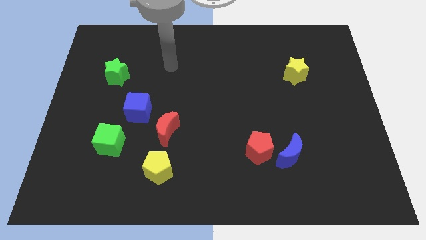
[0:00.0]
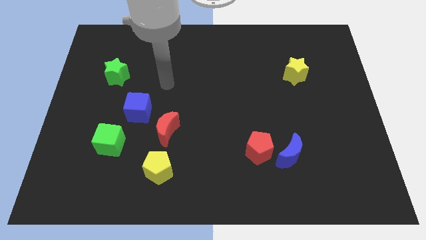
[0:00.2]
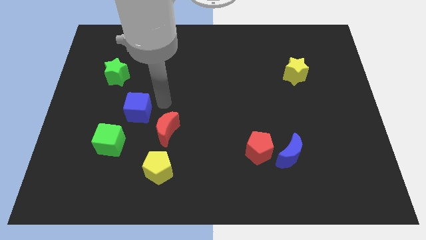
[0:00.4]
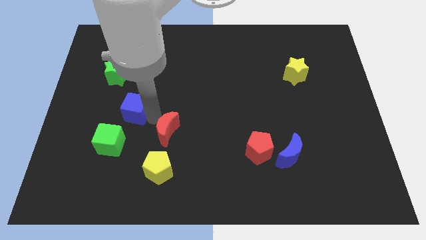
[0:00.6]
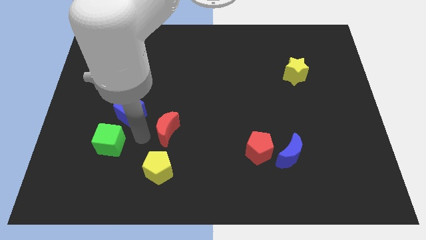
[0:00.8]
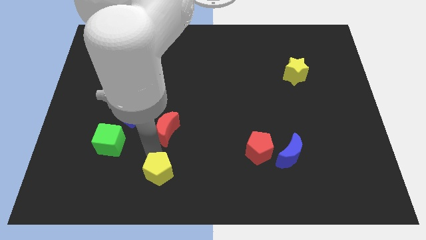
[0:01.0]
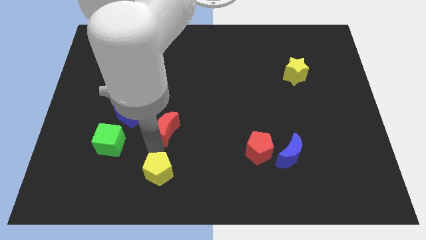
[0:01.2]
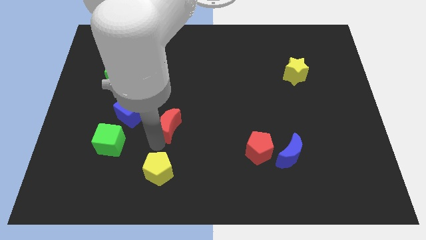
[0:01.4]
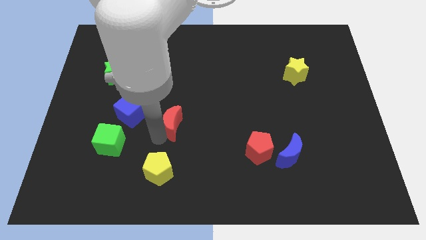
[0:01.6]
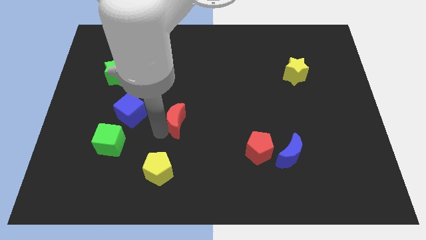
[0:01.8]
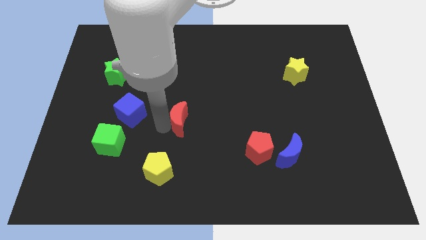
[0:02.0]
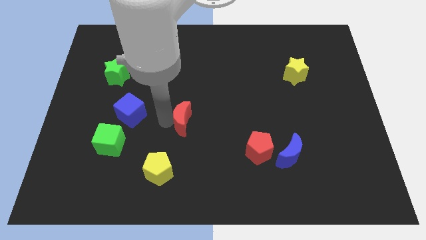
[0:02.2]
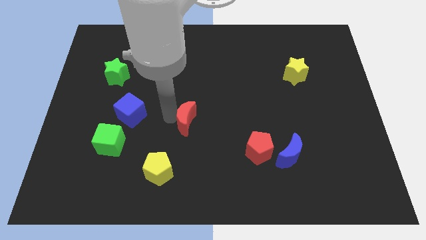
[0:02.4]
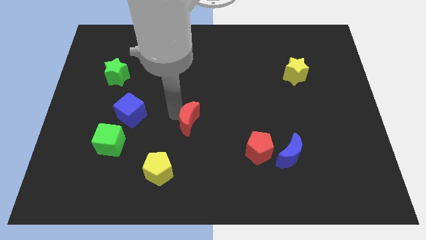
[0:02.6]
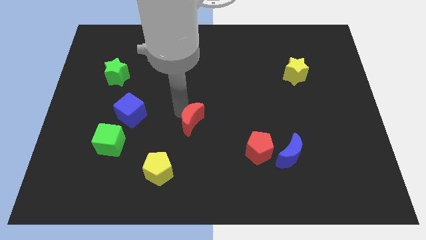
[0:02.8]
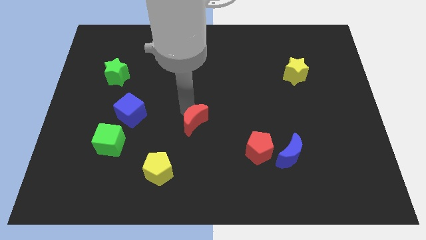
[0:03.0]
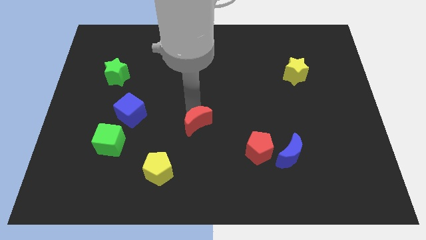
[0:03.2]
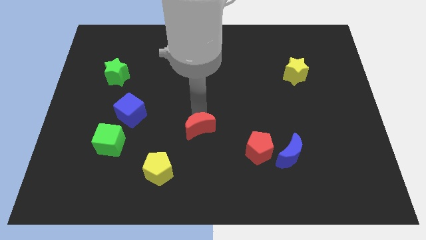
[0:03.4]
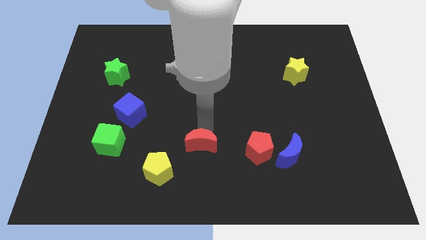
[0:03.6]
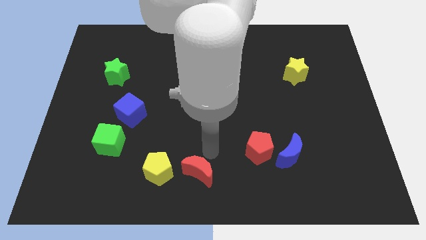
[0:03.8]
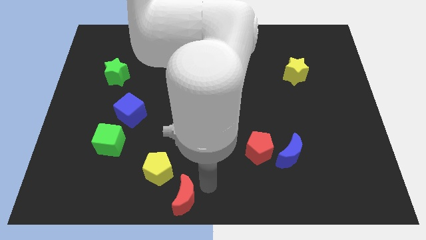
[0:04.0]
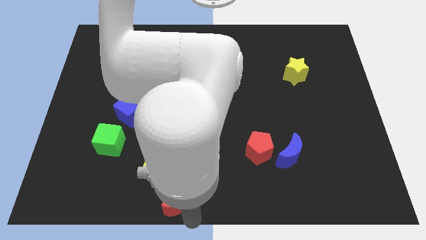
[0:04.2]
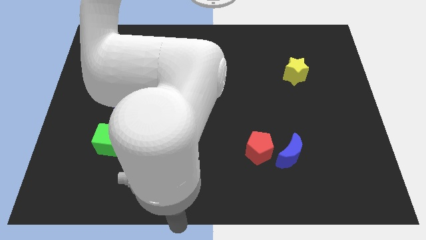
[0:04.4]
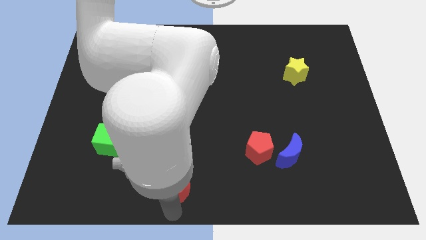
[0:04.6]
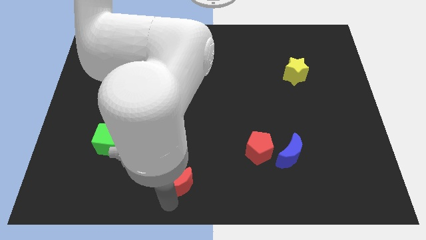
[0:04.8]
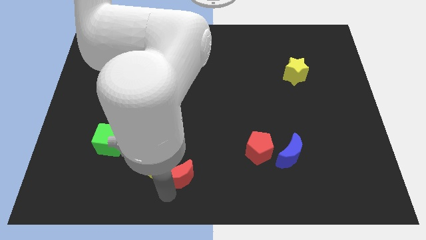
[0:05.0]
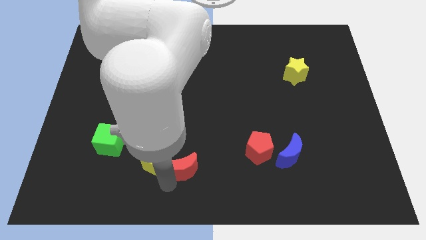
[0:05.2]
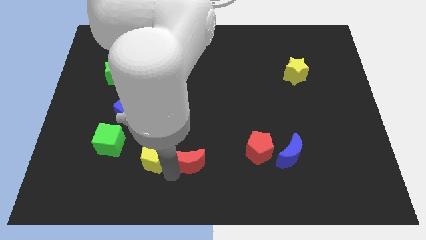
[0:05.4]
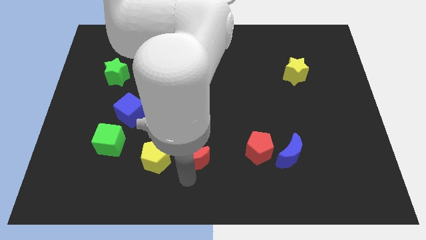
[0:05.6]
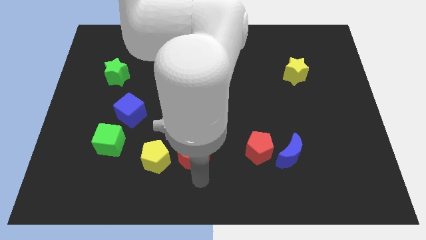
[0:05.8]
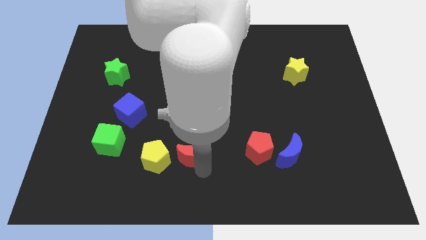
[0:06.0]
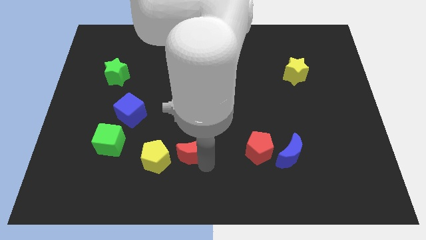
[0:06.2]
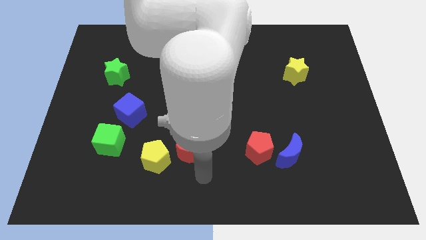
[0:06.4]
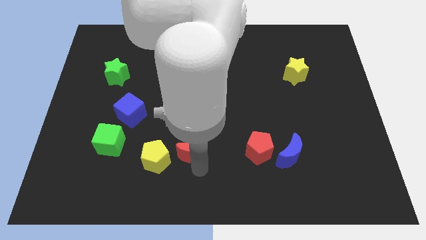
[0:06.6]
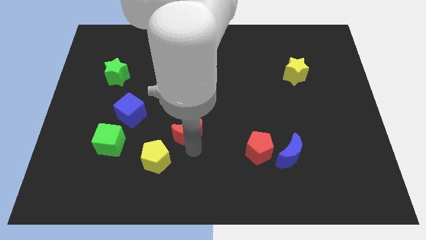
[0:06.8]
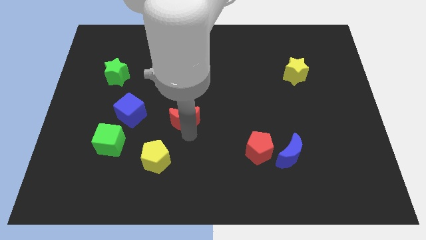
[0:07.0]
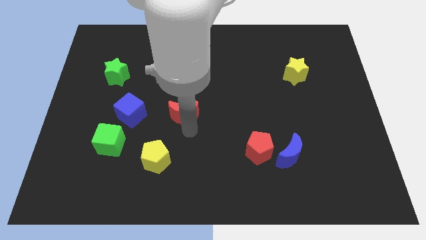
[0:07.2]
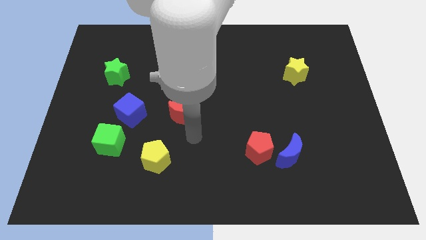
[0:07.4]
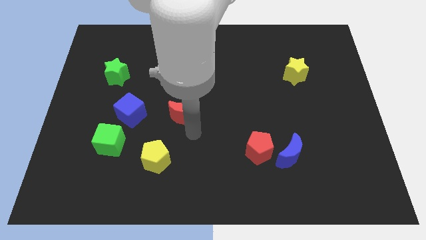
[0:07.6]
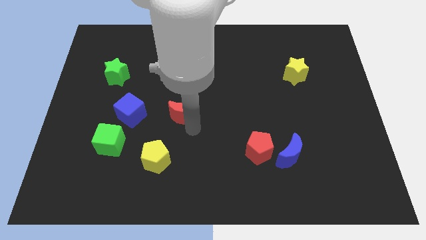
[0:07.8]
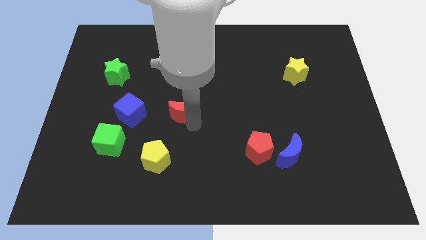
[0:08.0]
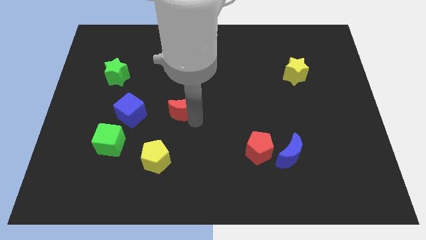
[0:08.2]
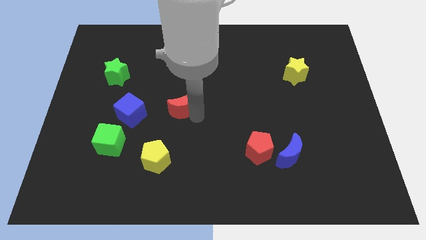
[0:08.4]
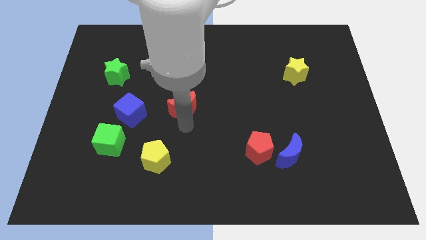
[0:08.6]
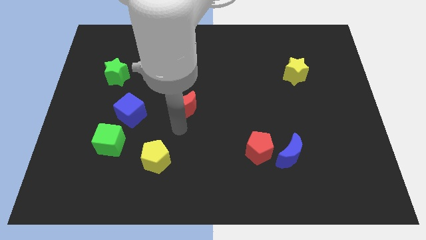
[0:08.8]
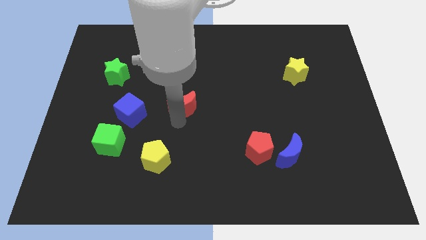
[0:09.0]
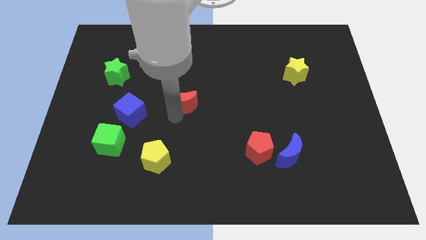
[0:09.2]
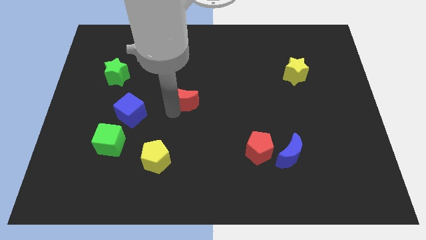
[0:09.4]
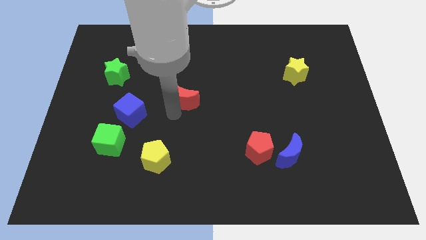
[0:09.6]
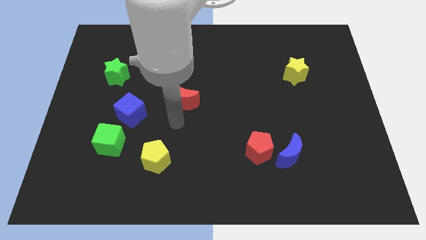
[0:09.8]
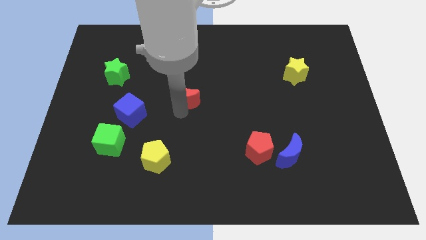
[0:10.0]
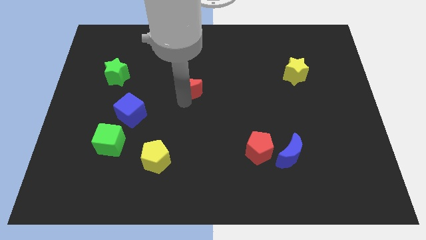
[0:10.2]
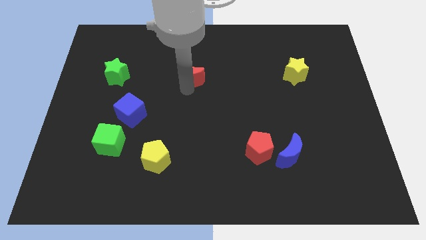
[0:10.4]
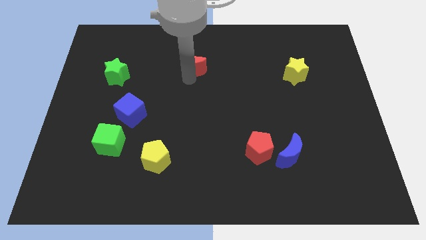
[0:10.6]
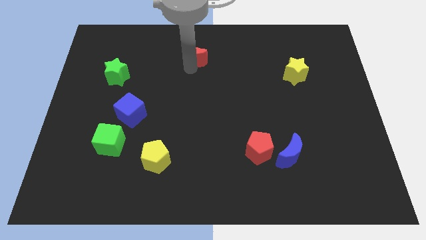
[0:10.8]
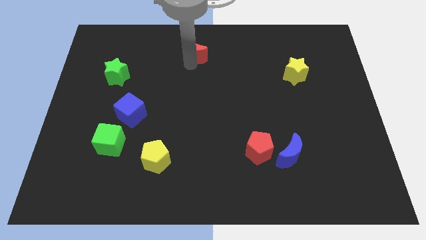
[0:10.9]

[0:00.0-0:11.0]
slide the red moon to the top

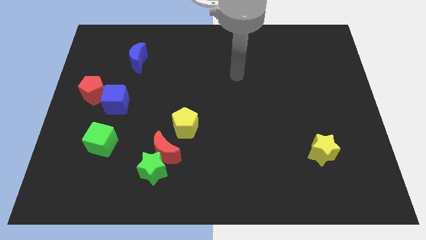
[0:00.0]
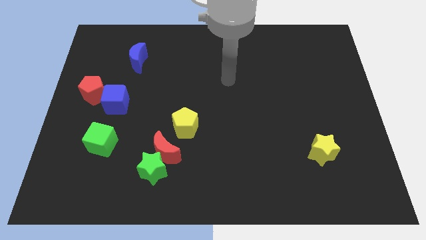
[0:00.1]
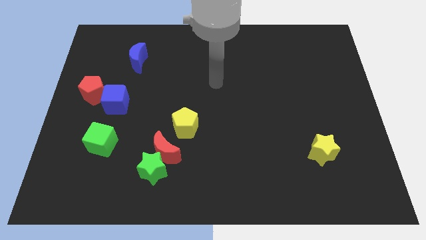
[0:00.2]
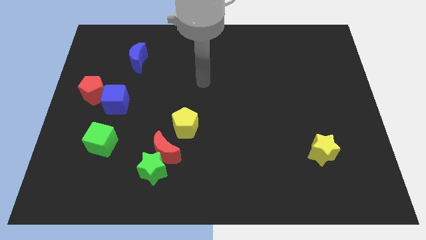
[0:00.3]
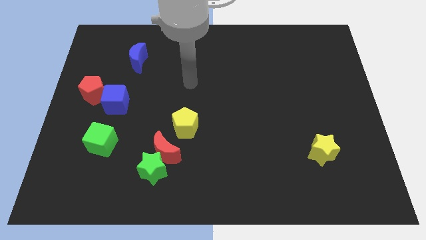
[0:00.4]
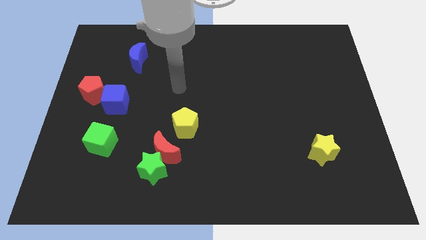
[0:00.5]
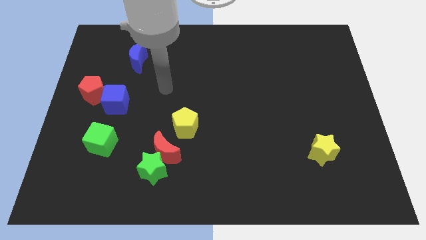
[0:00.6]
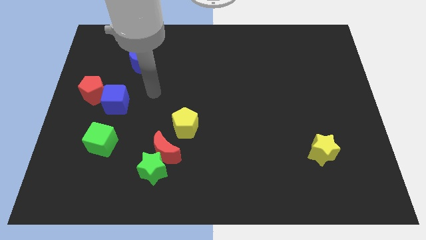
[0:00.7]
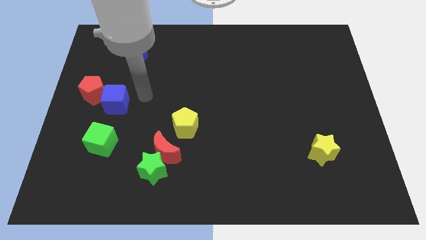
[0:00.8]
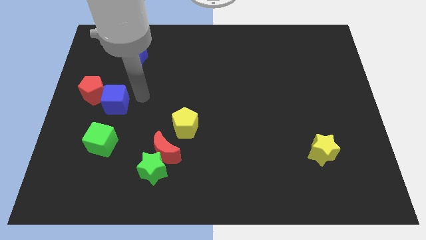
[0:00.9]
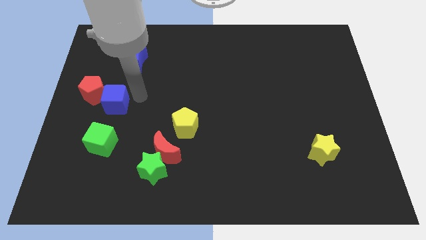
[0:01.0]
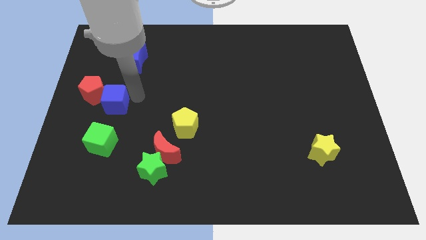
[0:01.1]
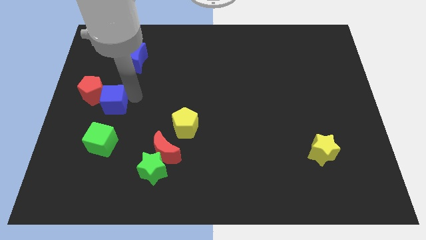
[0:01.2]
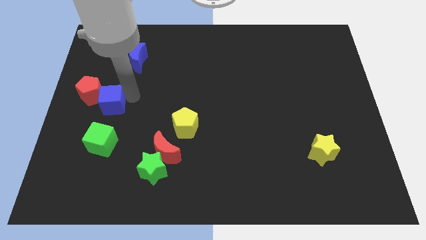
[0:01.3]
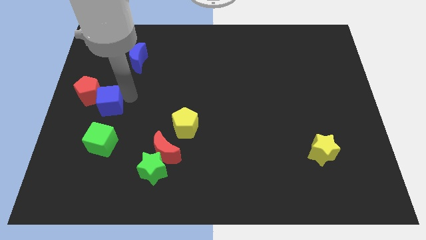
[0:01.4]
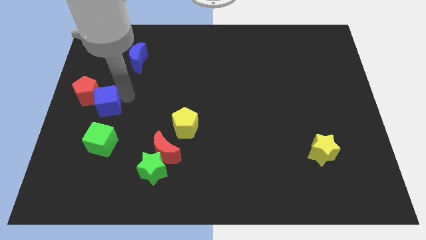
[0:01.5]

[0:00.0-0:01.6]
push the blue cube to the left side of the board

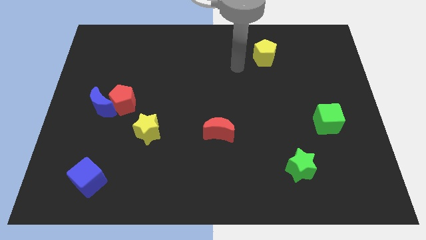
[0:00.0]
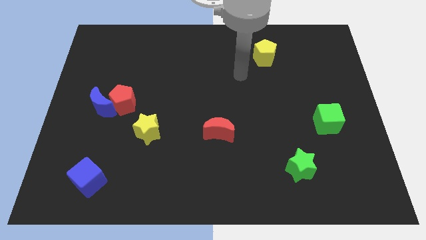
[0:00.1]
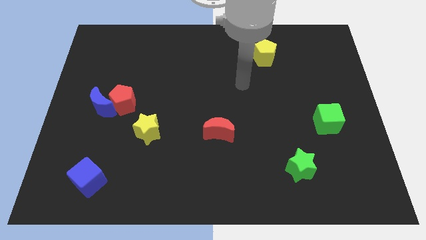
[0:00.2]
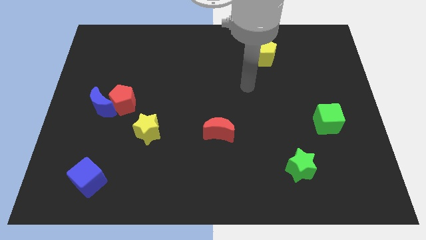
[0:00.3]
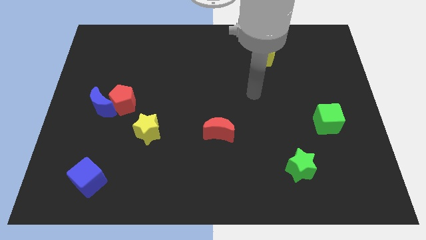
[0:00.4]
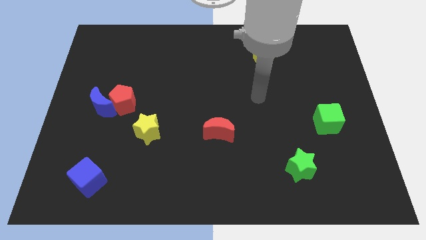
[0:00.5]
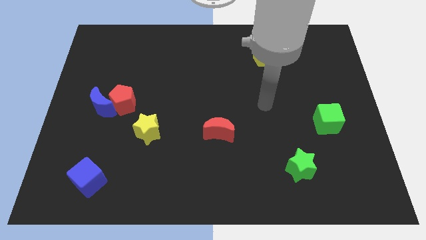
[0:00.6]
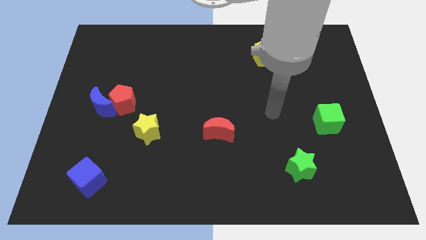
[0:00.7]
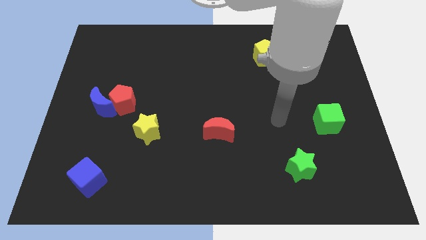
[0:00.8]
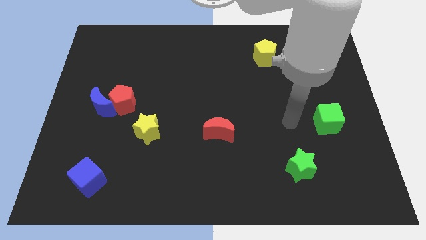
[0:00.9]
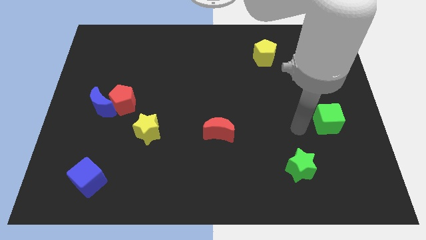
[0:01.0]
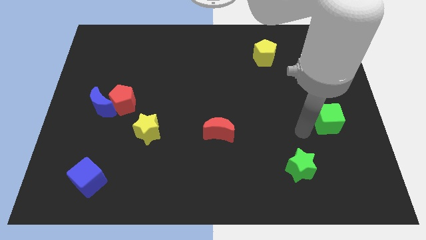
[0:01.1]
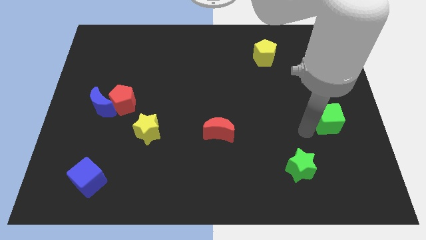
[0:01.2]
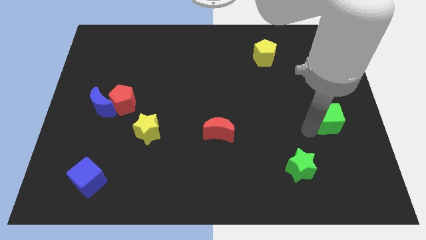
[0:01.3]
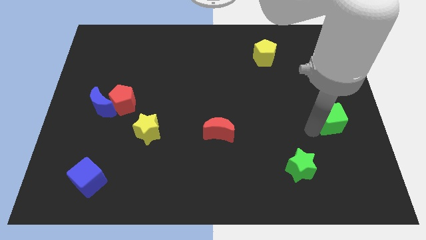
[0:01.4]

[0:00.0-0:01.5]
put the green cube to the center right
